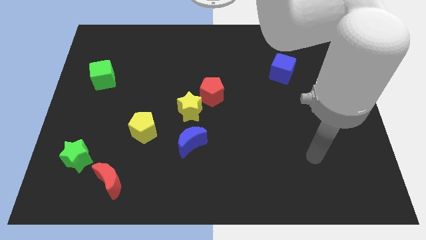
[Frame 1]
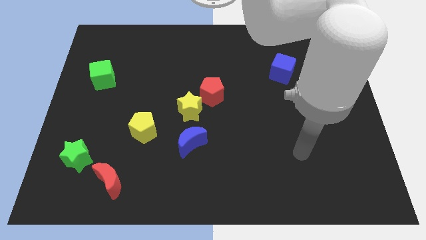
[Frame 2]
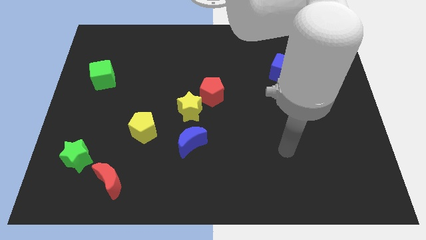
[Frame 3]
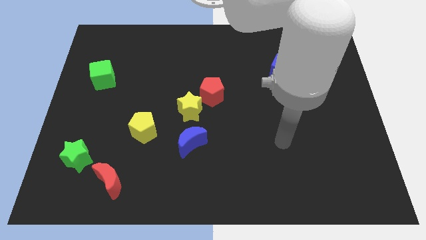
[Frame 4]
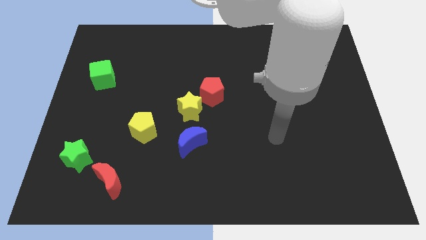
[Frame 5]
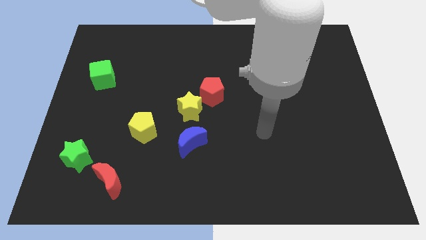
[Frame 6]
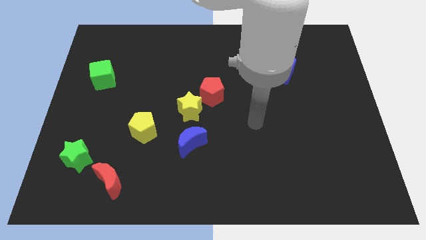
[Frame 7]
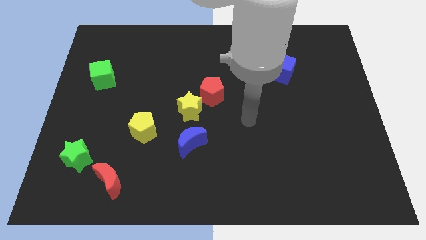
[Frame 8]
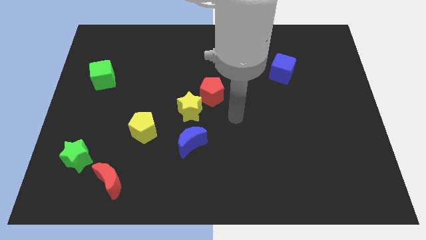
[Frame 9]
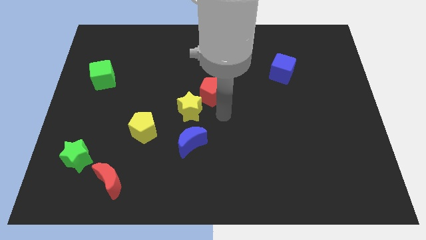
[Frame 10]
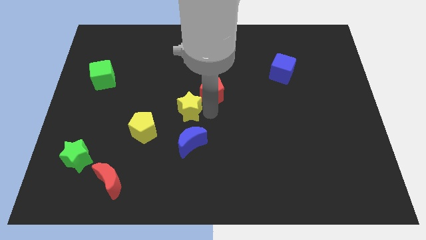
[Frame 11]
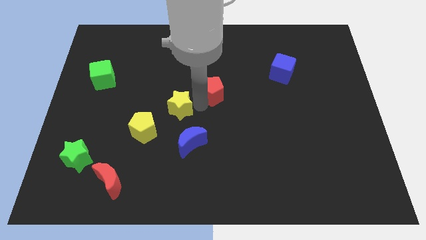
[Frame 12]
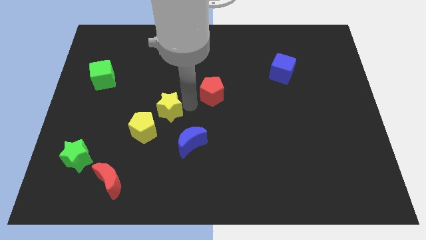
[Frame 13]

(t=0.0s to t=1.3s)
pull the red pentagon apart from the yellow star

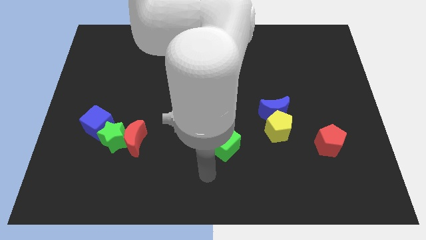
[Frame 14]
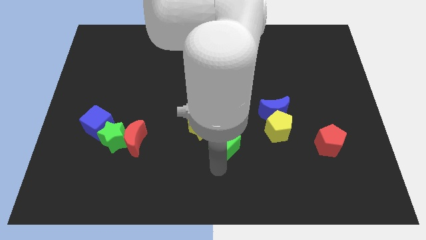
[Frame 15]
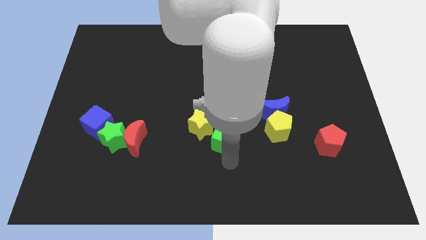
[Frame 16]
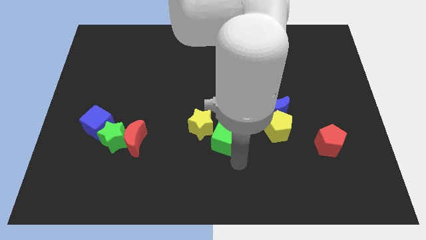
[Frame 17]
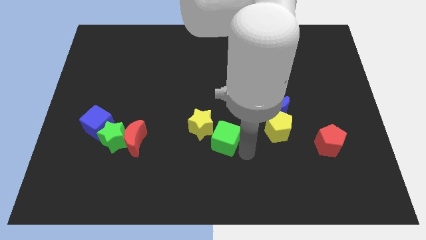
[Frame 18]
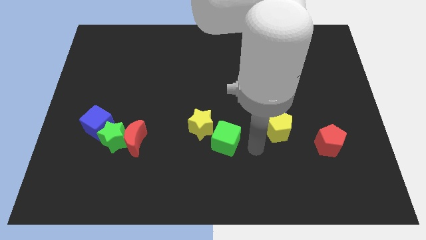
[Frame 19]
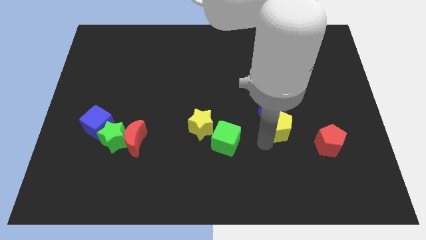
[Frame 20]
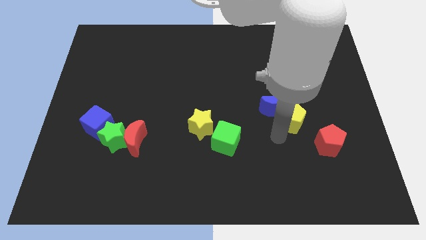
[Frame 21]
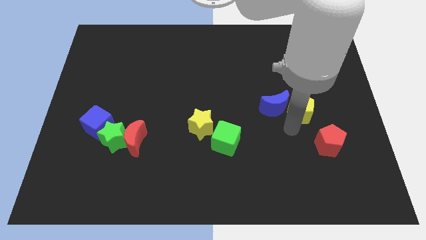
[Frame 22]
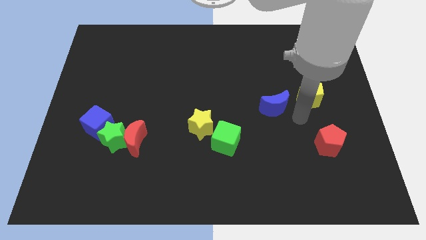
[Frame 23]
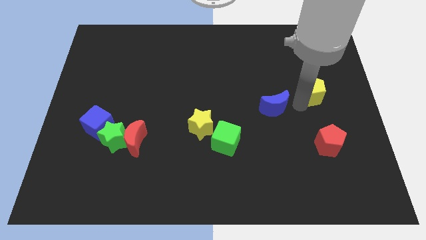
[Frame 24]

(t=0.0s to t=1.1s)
separate the blue moon from the yellow pentagon

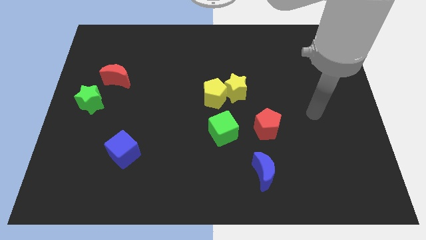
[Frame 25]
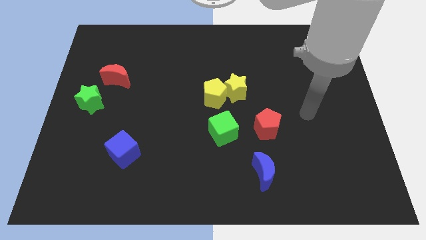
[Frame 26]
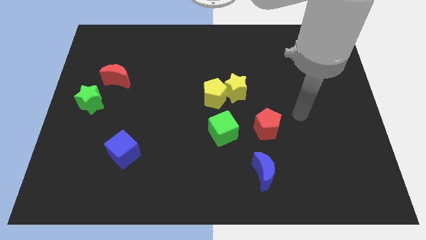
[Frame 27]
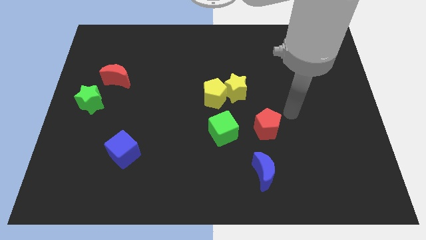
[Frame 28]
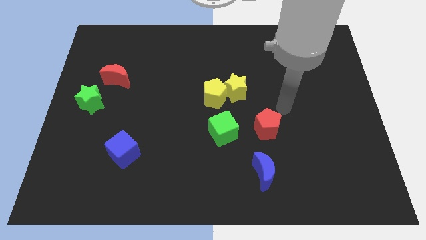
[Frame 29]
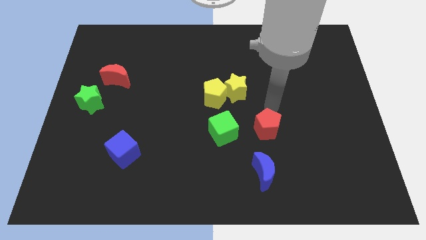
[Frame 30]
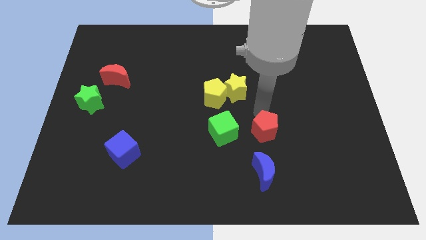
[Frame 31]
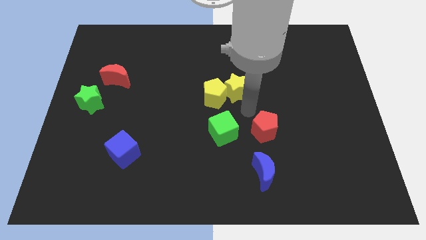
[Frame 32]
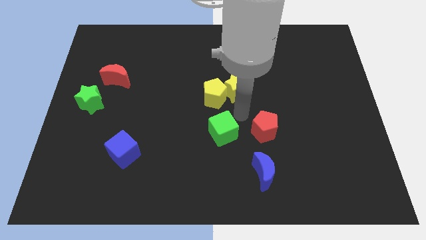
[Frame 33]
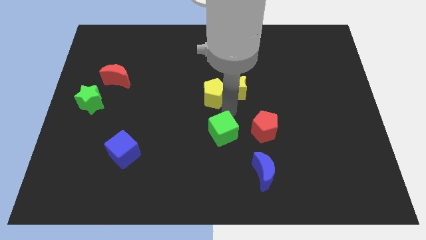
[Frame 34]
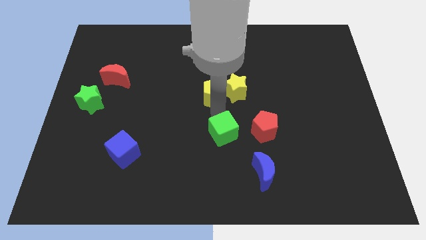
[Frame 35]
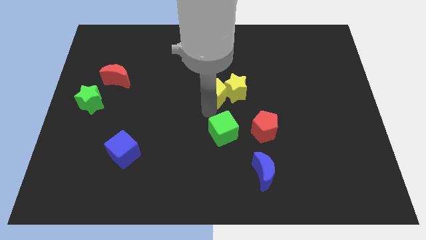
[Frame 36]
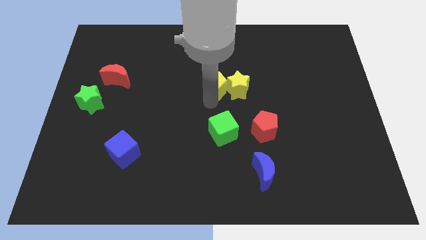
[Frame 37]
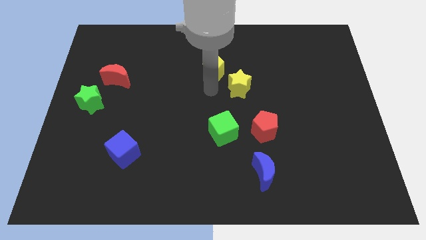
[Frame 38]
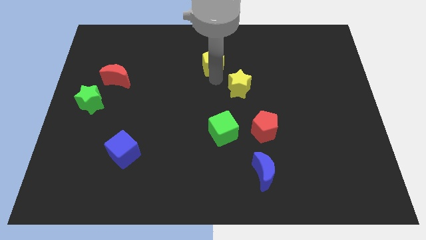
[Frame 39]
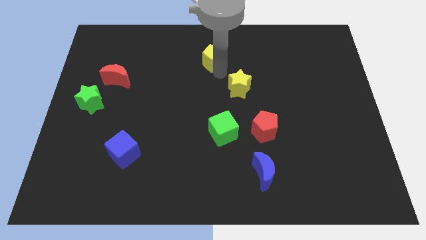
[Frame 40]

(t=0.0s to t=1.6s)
move the yellow star away from the yellow pentagon

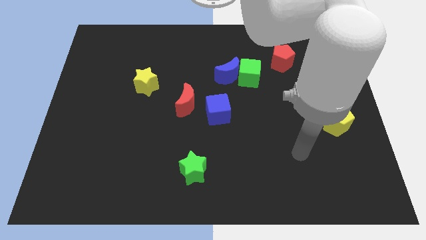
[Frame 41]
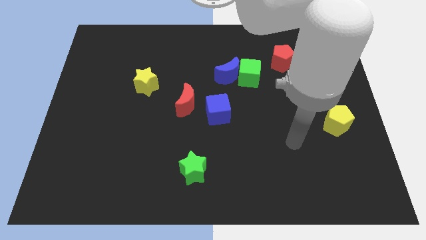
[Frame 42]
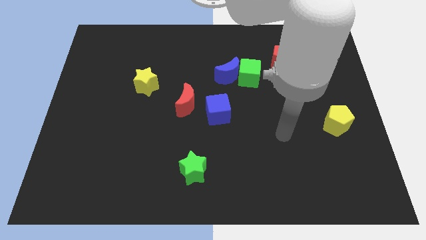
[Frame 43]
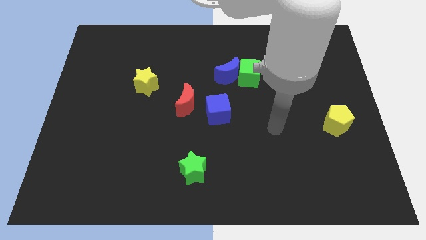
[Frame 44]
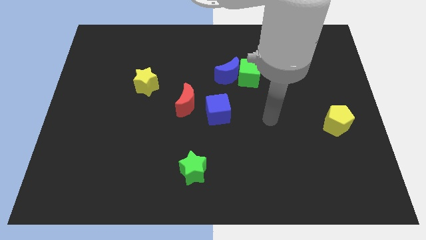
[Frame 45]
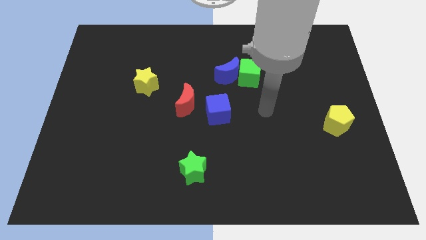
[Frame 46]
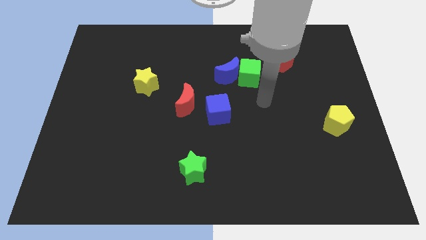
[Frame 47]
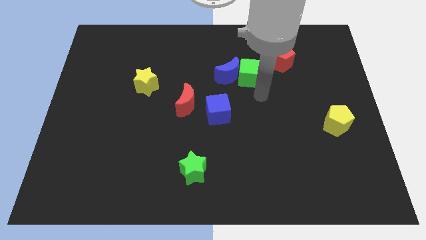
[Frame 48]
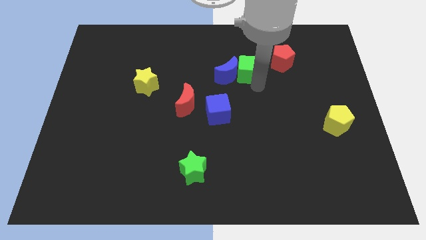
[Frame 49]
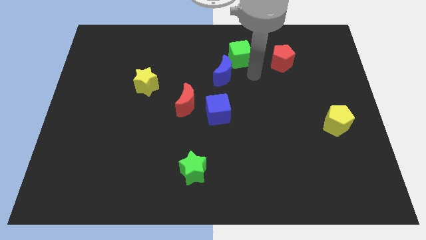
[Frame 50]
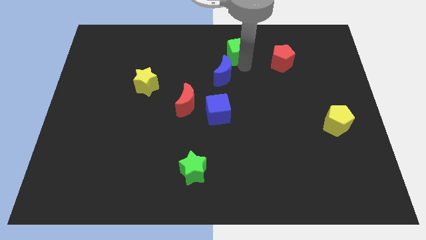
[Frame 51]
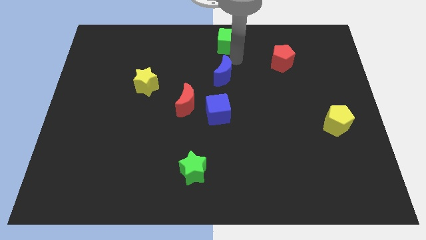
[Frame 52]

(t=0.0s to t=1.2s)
separate the blue moon from the green cube

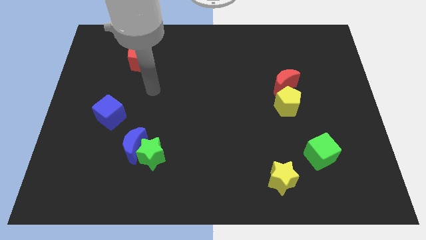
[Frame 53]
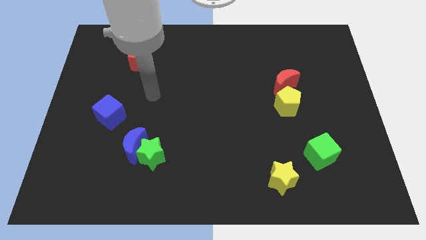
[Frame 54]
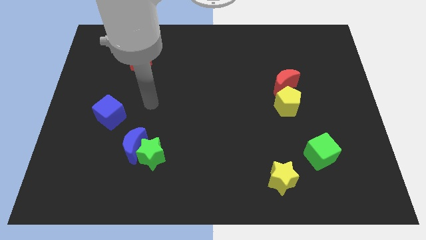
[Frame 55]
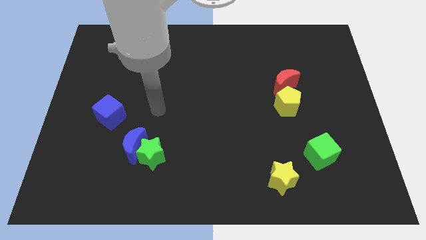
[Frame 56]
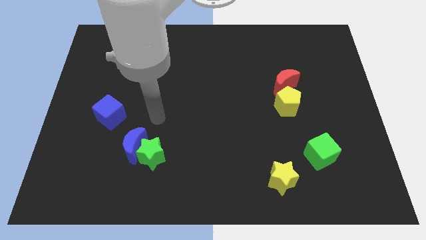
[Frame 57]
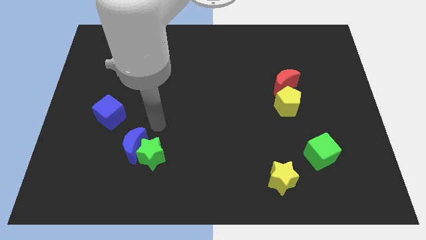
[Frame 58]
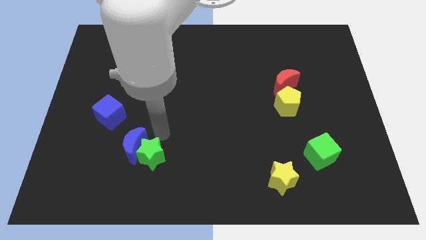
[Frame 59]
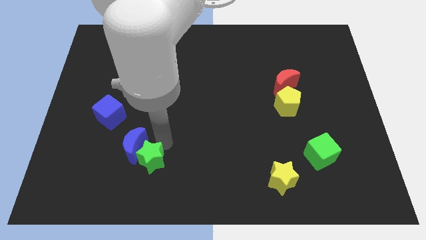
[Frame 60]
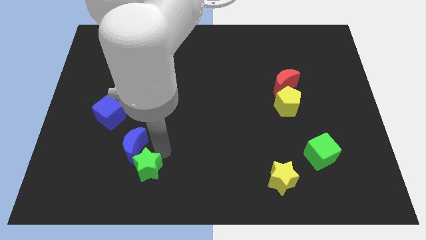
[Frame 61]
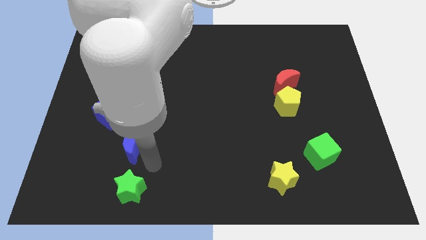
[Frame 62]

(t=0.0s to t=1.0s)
separate the blue moon from the green star

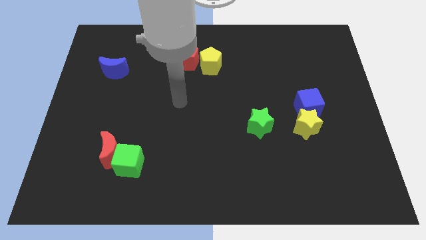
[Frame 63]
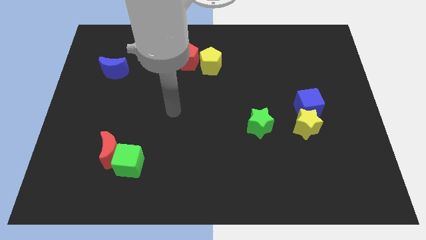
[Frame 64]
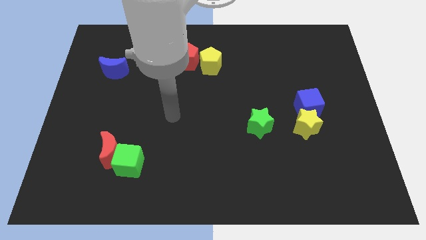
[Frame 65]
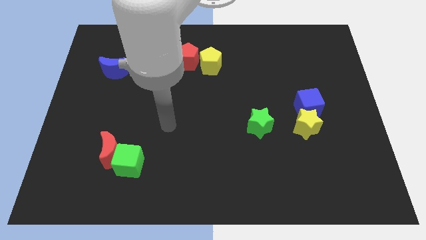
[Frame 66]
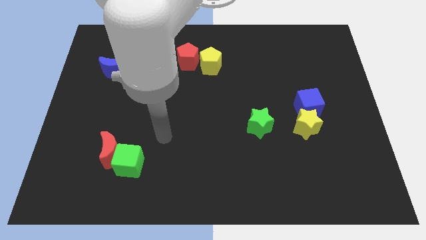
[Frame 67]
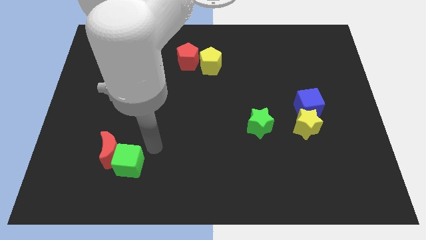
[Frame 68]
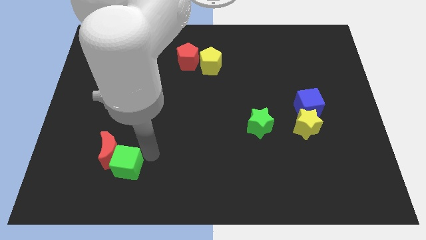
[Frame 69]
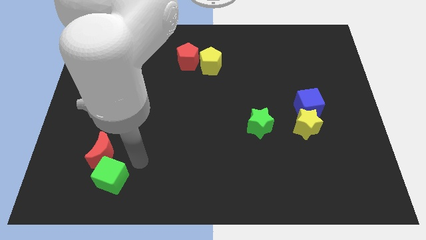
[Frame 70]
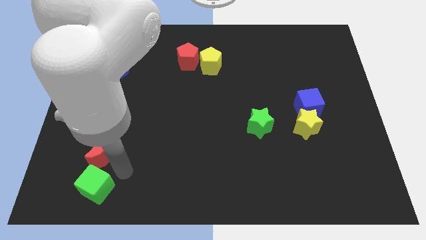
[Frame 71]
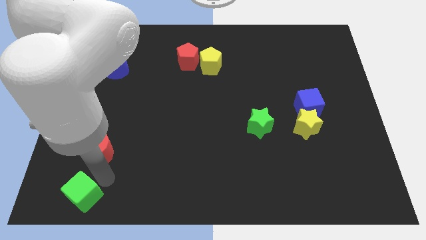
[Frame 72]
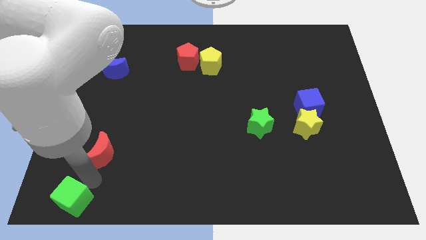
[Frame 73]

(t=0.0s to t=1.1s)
move the red moon away from the green cube

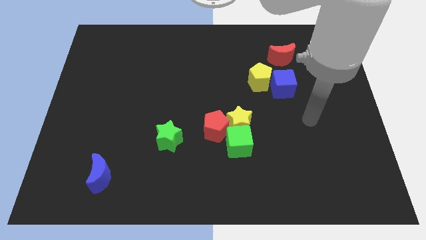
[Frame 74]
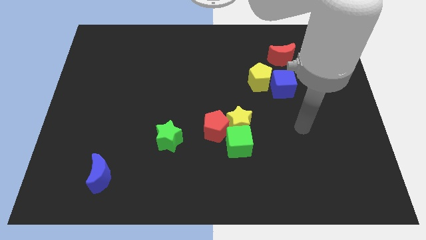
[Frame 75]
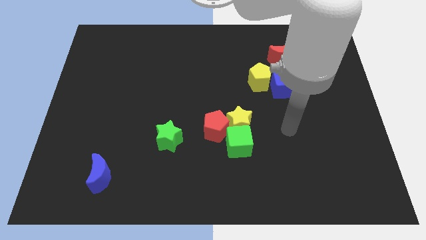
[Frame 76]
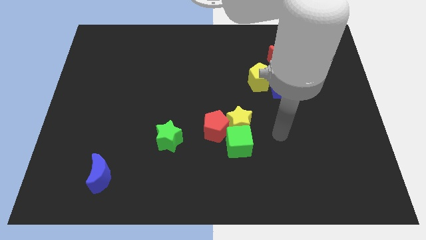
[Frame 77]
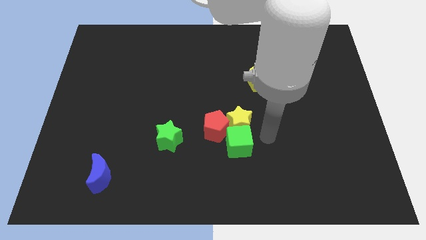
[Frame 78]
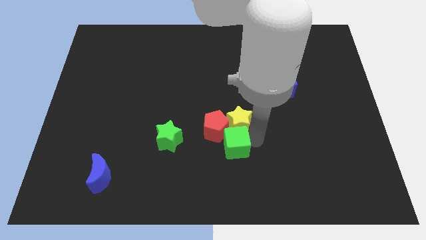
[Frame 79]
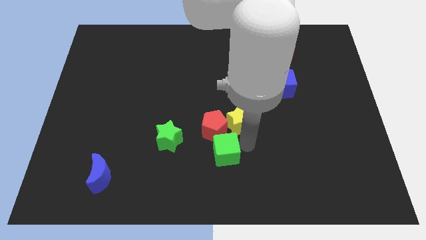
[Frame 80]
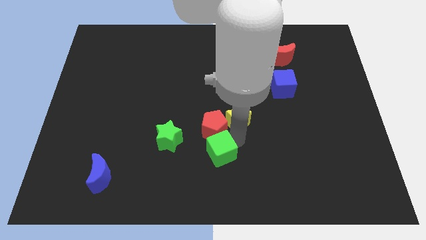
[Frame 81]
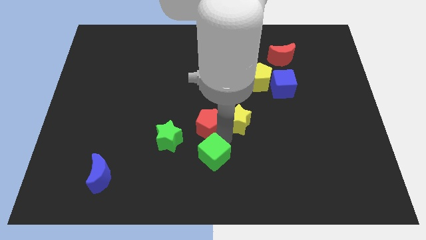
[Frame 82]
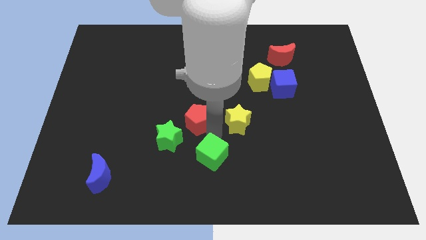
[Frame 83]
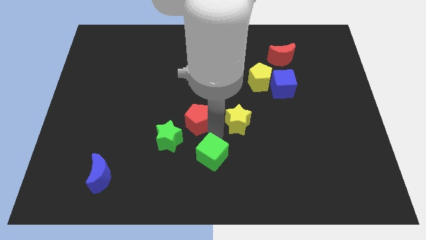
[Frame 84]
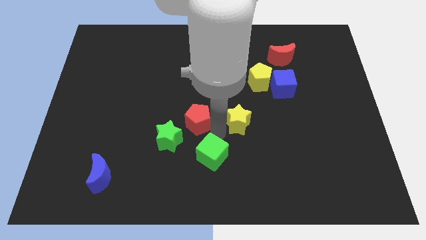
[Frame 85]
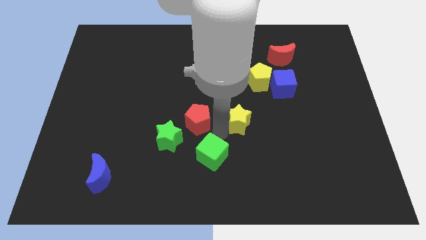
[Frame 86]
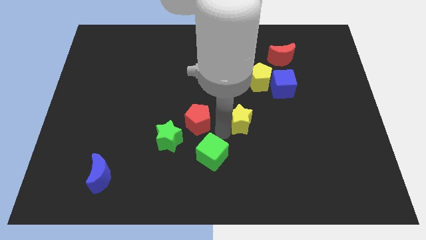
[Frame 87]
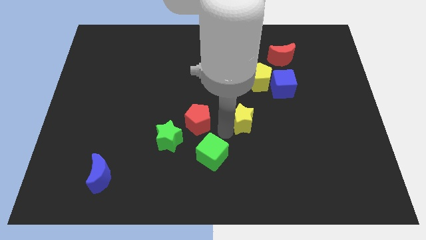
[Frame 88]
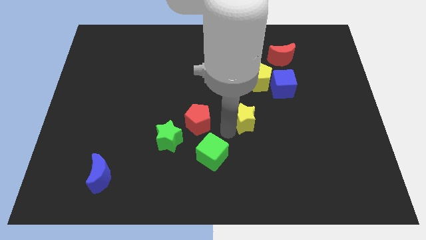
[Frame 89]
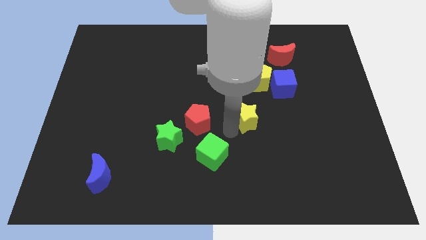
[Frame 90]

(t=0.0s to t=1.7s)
separate the yellow star from the red pentagon and green cube

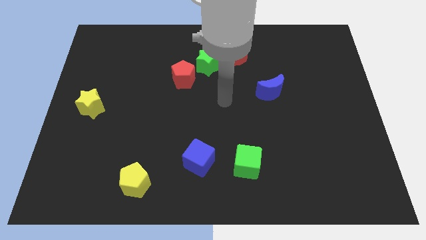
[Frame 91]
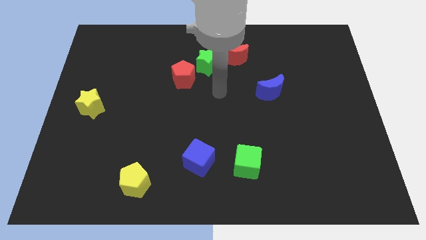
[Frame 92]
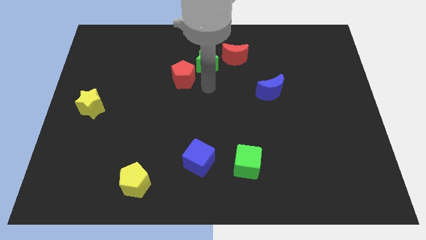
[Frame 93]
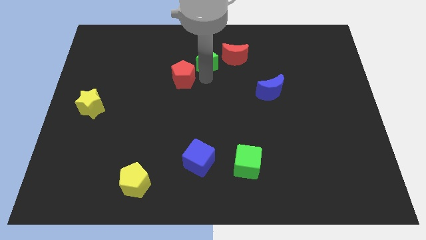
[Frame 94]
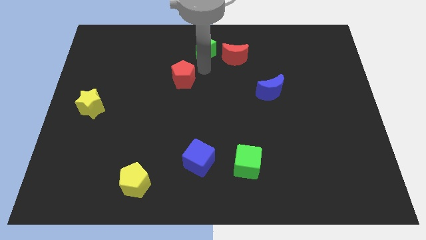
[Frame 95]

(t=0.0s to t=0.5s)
separate the red pentagon from the green star
